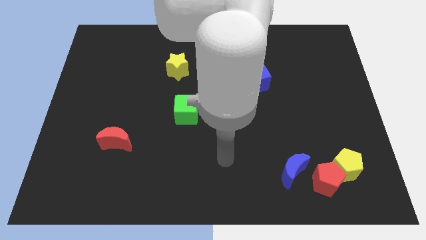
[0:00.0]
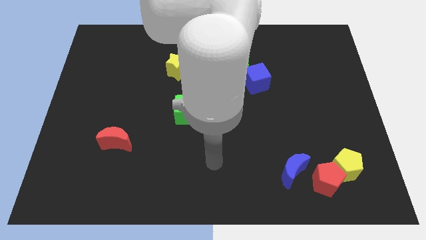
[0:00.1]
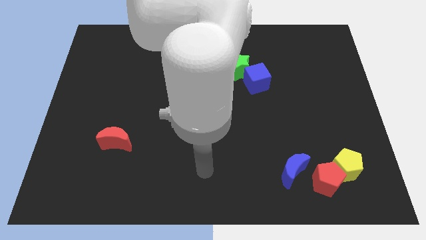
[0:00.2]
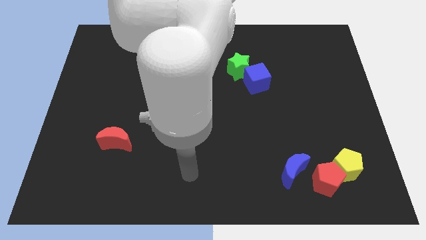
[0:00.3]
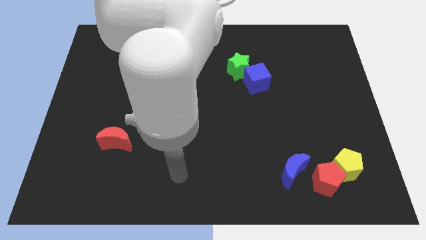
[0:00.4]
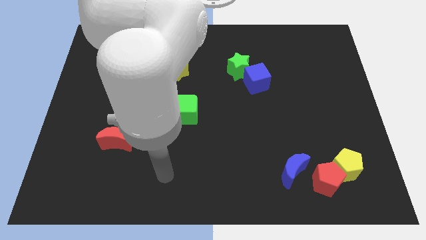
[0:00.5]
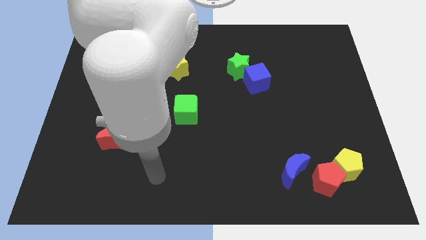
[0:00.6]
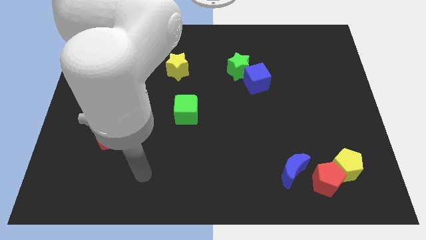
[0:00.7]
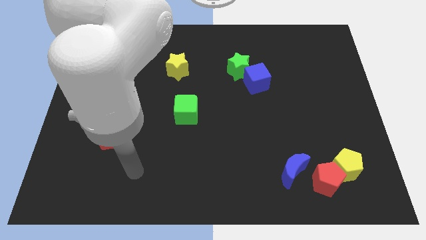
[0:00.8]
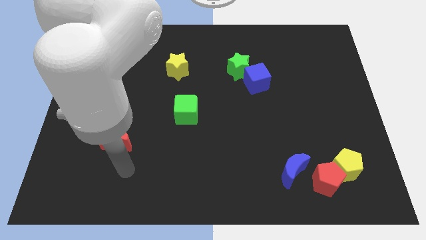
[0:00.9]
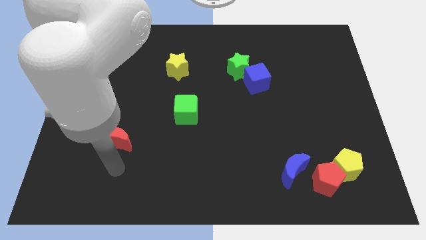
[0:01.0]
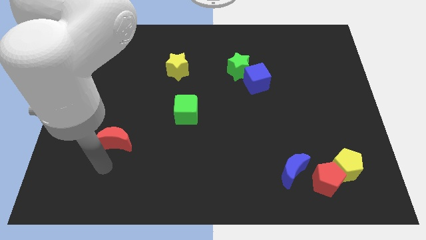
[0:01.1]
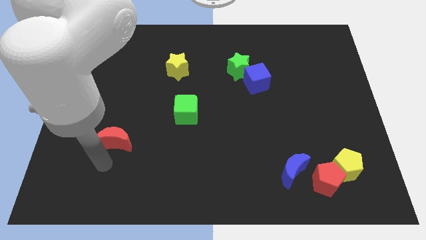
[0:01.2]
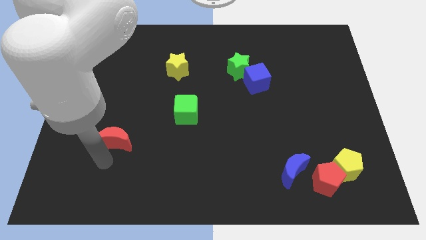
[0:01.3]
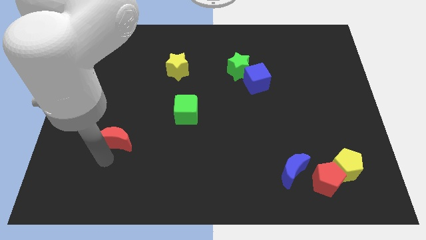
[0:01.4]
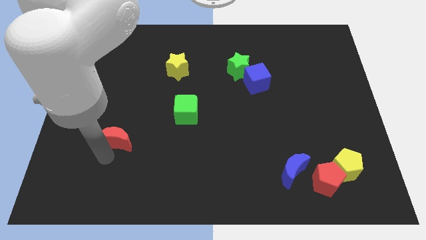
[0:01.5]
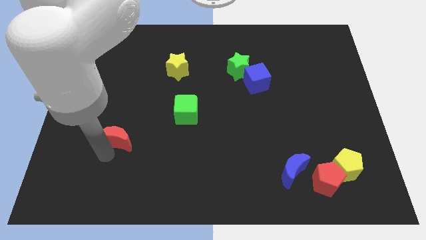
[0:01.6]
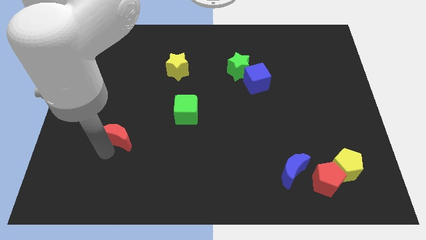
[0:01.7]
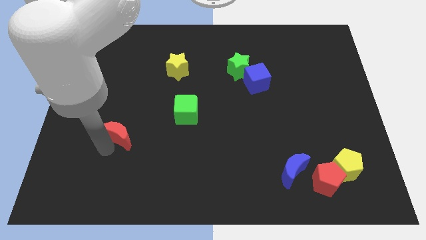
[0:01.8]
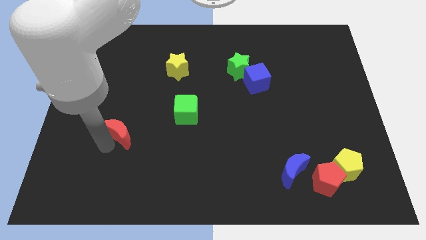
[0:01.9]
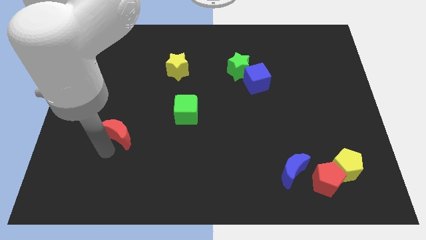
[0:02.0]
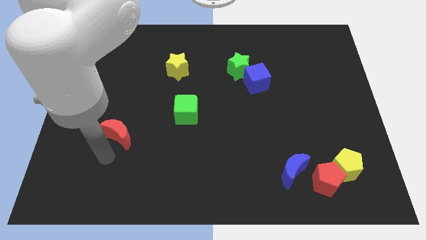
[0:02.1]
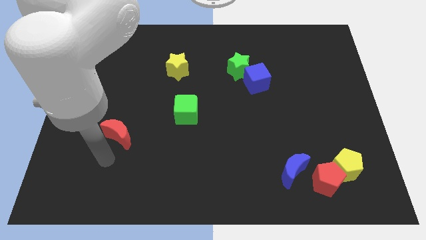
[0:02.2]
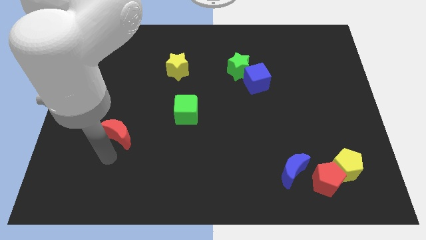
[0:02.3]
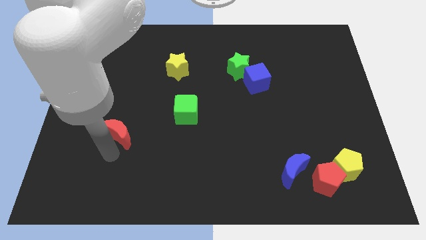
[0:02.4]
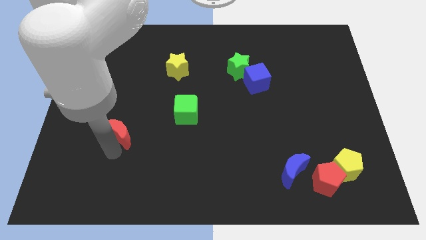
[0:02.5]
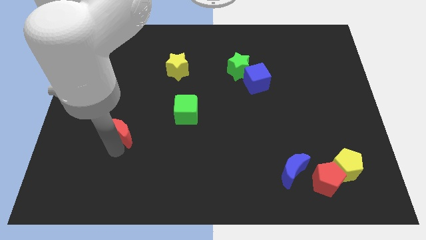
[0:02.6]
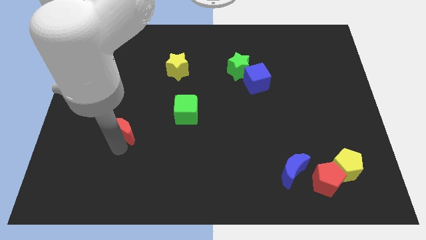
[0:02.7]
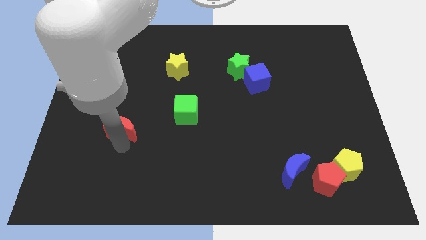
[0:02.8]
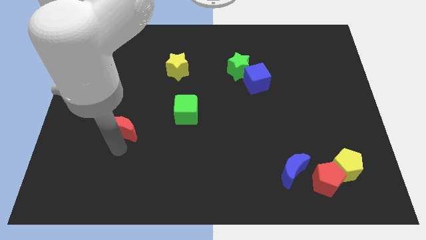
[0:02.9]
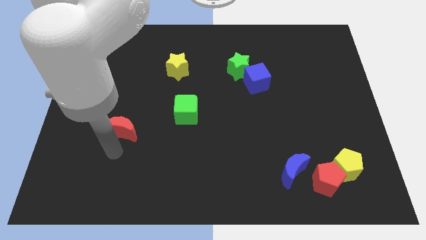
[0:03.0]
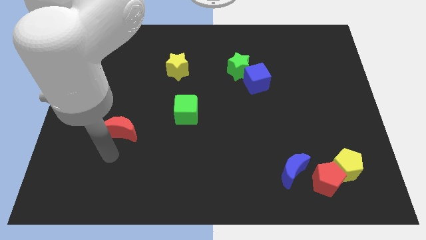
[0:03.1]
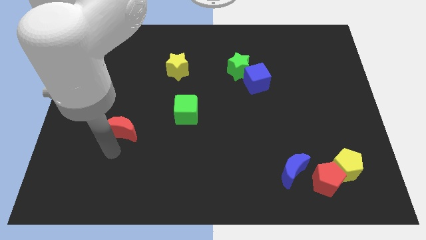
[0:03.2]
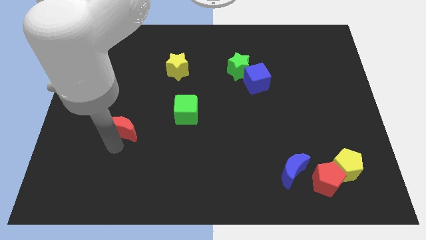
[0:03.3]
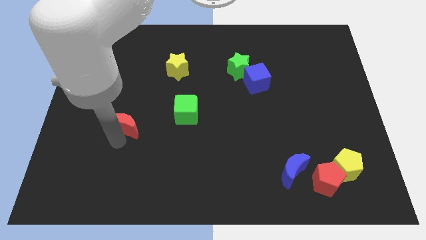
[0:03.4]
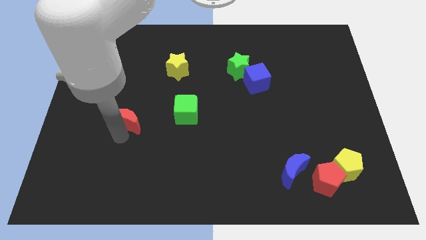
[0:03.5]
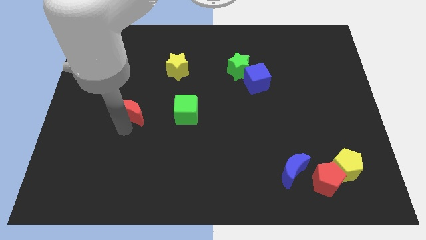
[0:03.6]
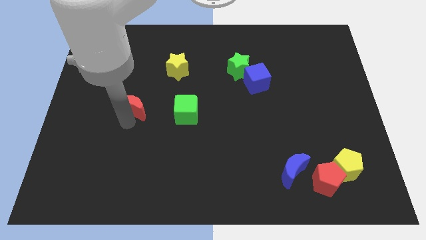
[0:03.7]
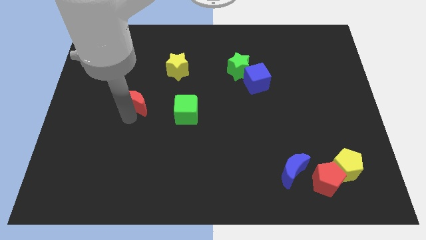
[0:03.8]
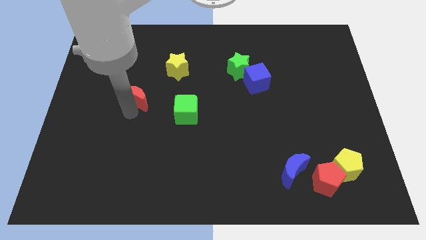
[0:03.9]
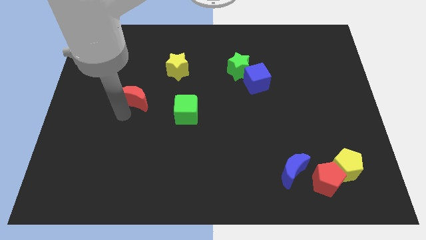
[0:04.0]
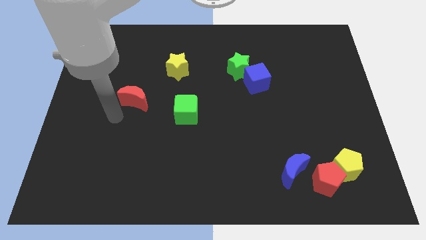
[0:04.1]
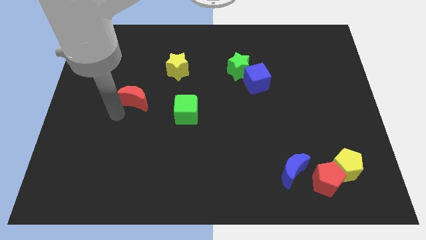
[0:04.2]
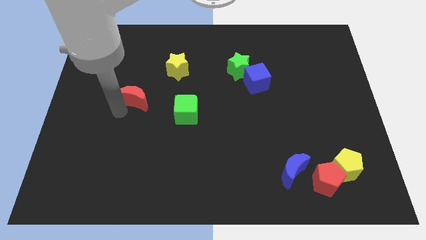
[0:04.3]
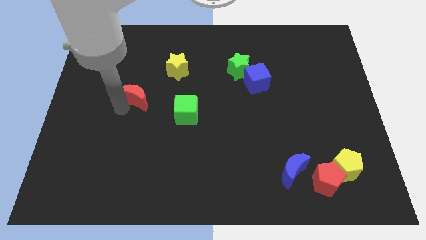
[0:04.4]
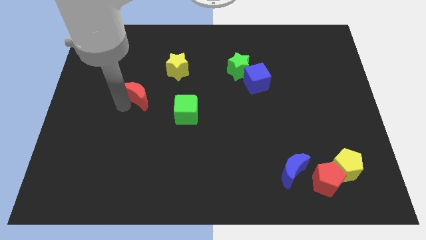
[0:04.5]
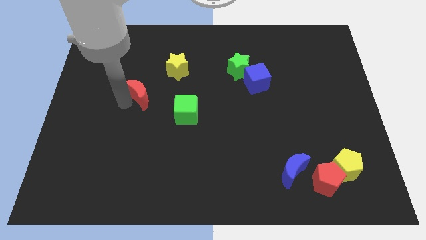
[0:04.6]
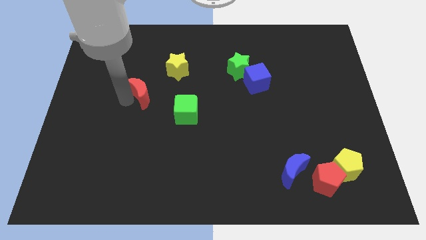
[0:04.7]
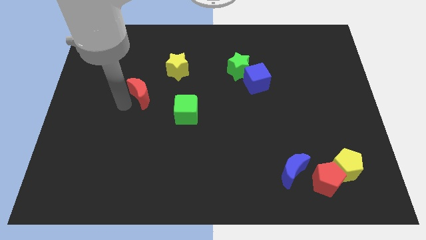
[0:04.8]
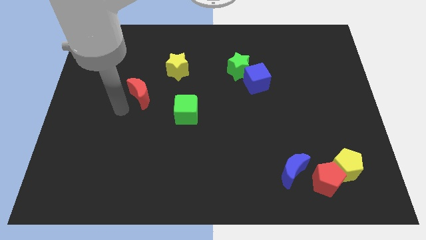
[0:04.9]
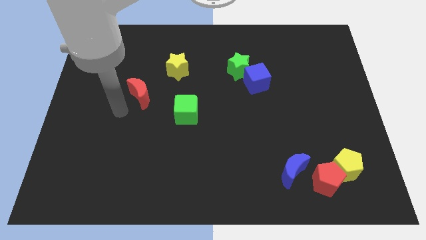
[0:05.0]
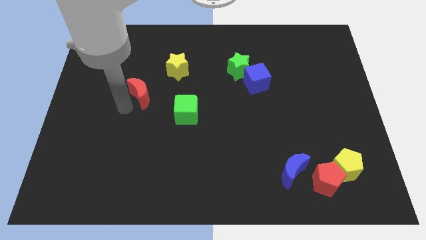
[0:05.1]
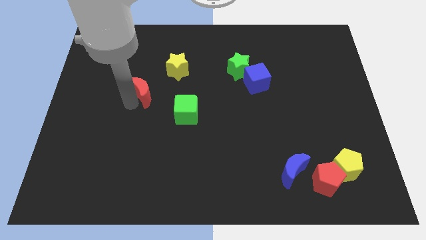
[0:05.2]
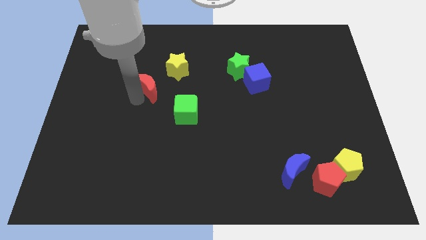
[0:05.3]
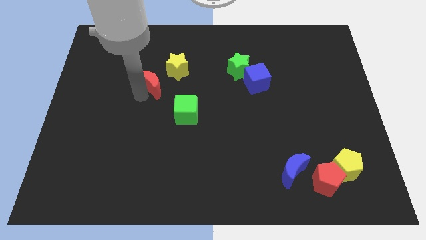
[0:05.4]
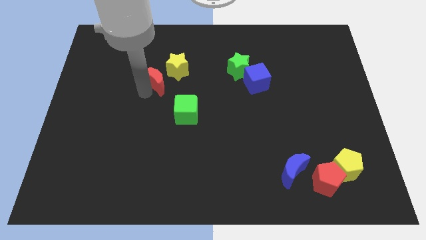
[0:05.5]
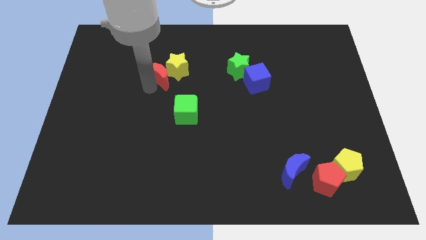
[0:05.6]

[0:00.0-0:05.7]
slide the red moon next to the yellow star

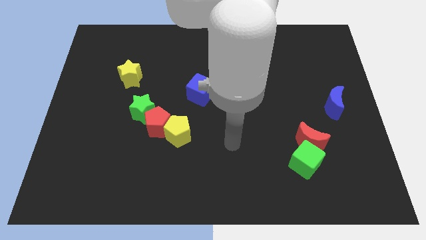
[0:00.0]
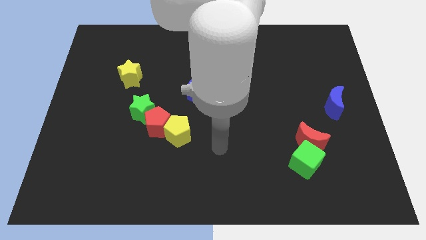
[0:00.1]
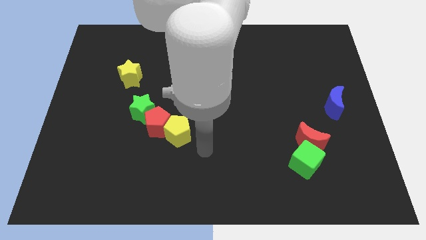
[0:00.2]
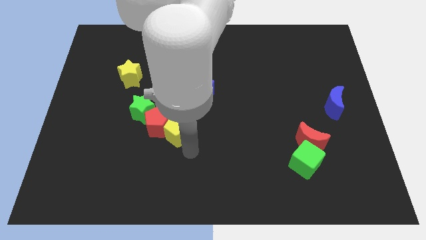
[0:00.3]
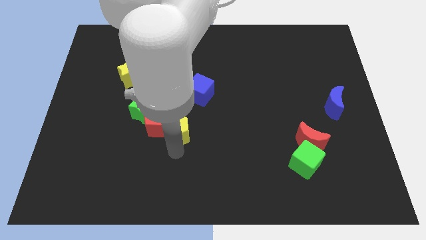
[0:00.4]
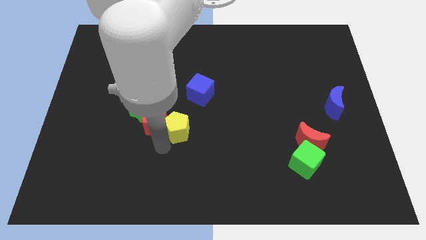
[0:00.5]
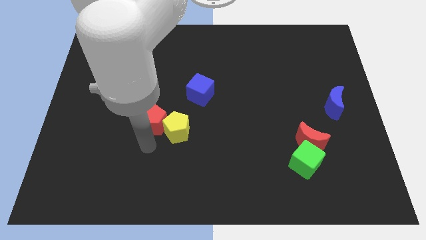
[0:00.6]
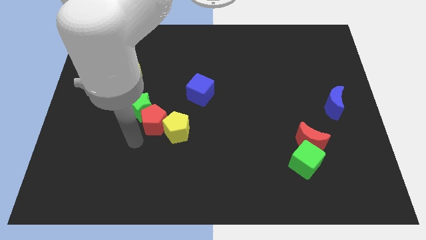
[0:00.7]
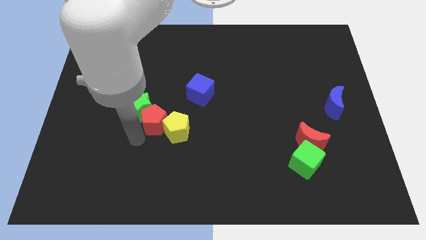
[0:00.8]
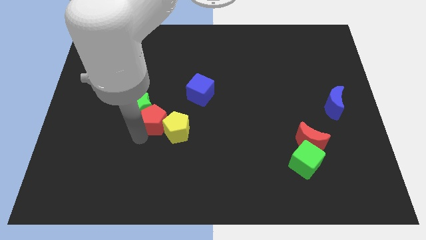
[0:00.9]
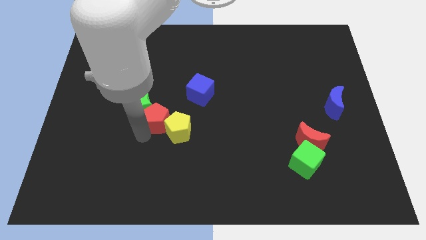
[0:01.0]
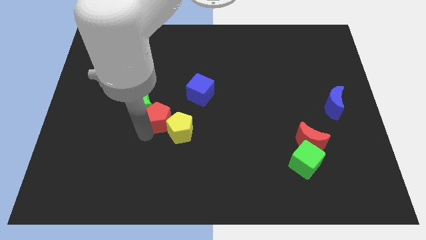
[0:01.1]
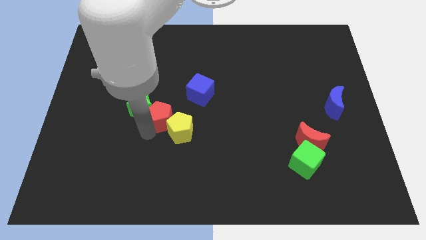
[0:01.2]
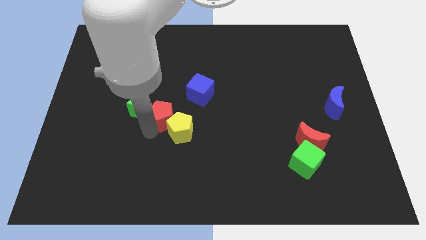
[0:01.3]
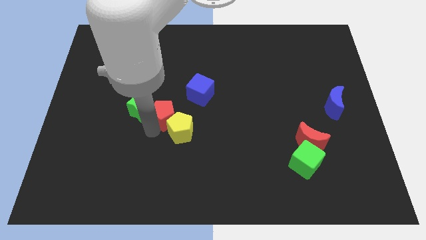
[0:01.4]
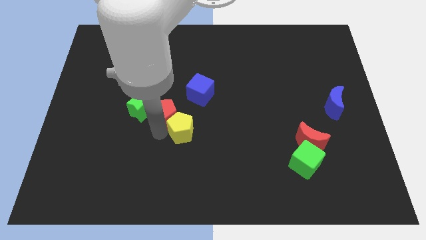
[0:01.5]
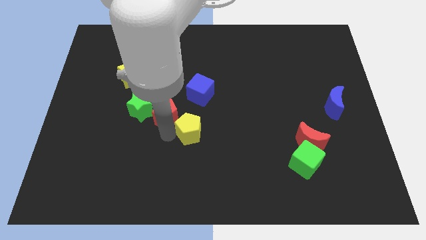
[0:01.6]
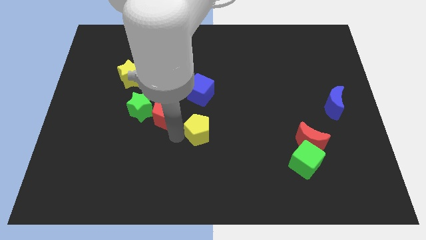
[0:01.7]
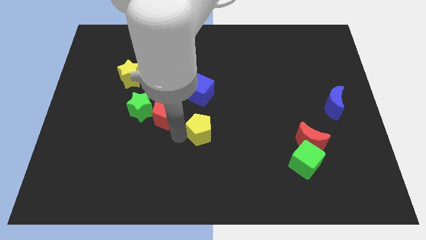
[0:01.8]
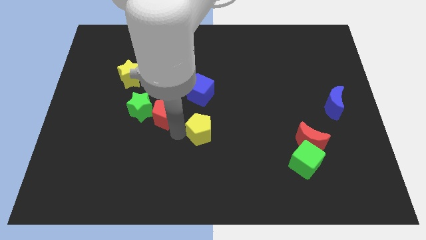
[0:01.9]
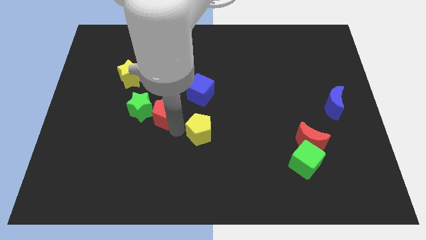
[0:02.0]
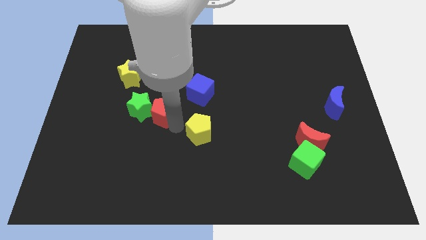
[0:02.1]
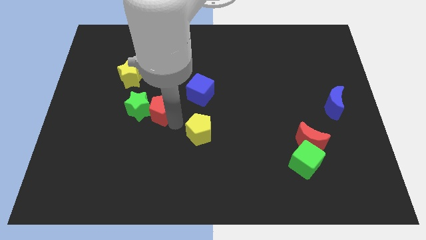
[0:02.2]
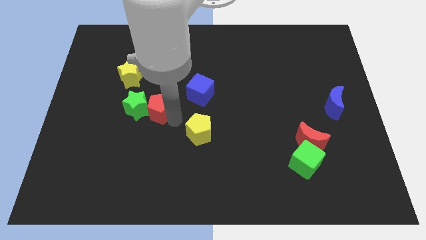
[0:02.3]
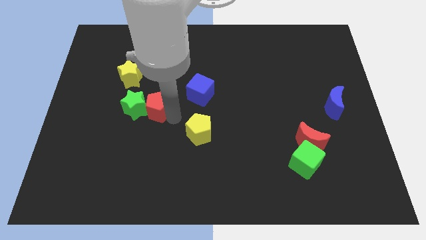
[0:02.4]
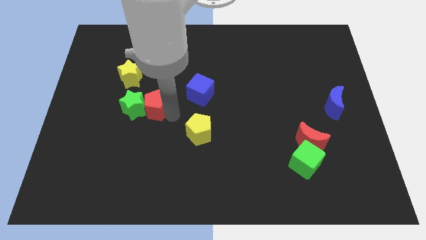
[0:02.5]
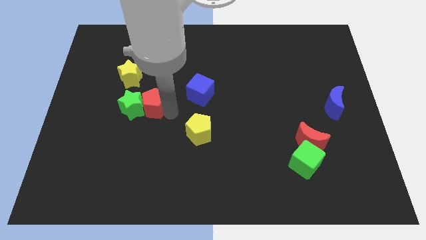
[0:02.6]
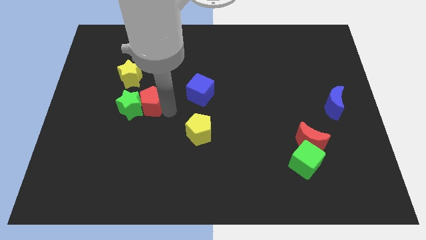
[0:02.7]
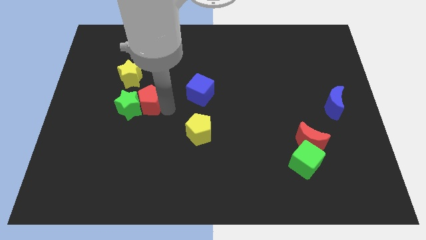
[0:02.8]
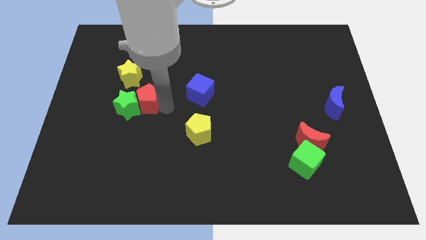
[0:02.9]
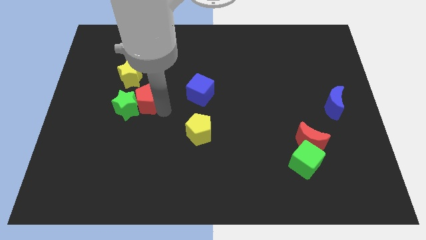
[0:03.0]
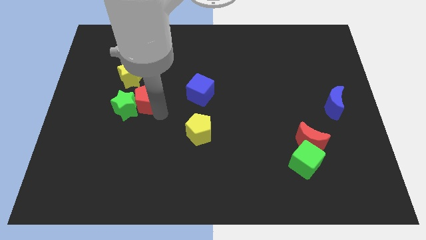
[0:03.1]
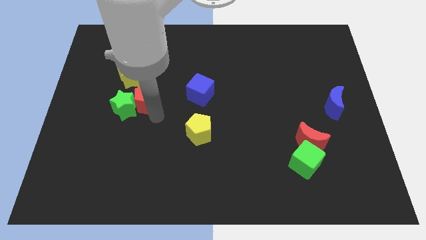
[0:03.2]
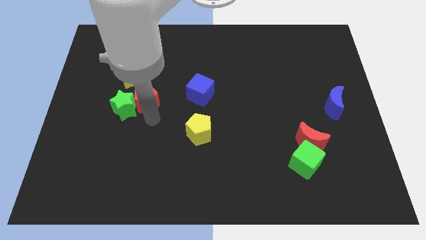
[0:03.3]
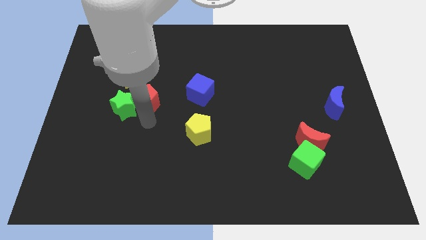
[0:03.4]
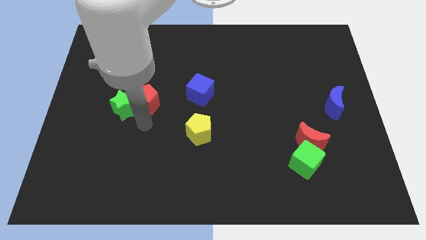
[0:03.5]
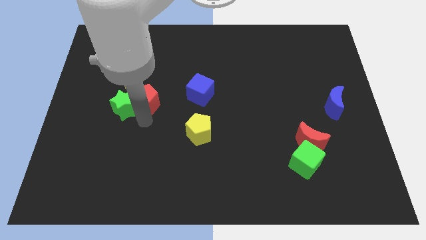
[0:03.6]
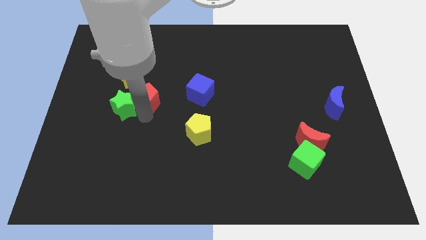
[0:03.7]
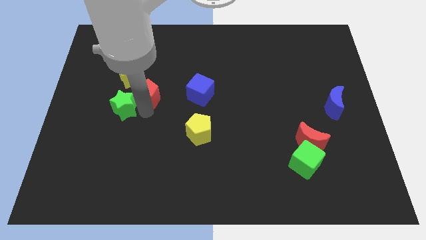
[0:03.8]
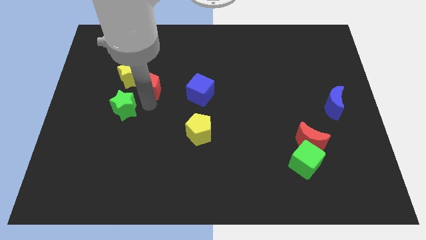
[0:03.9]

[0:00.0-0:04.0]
move the red pentagon to the yellow star
